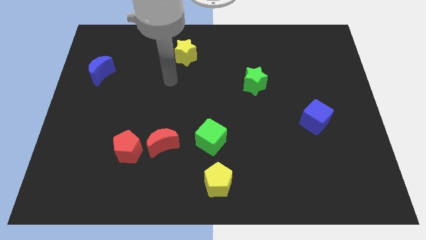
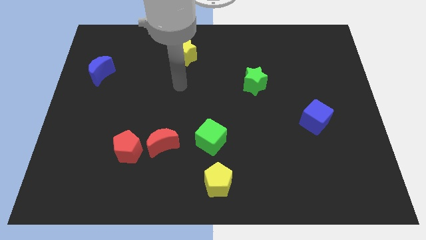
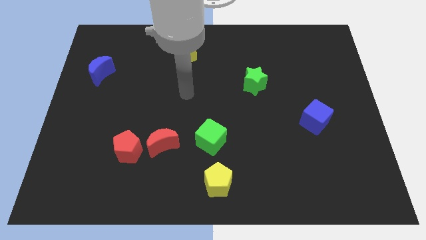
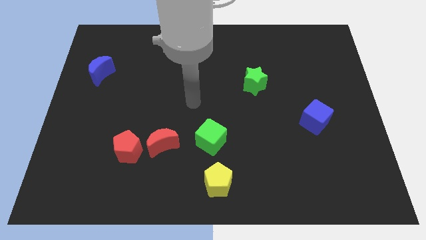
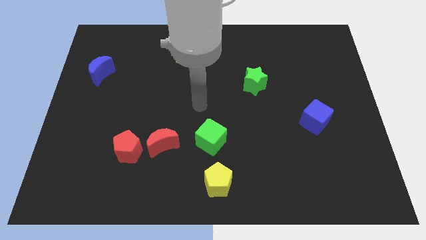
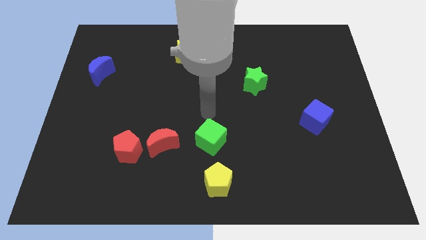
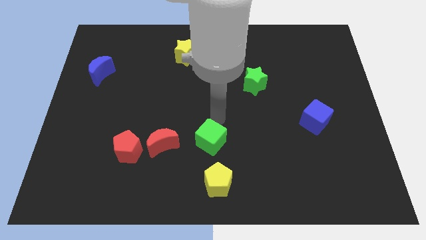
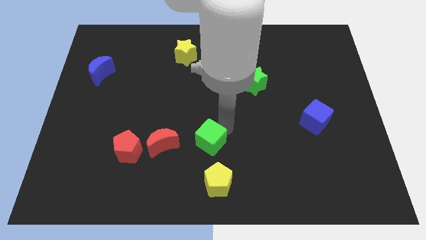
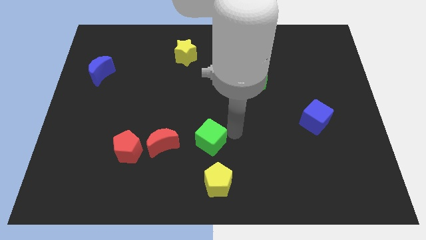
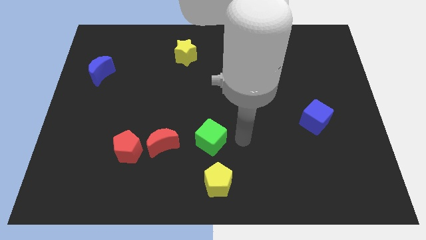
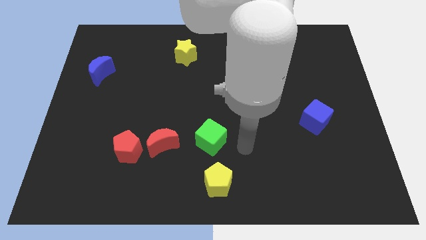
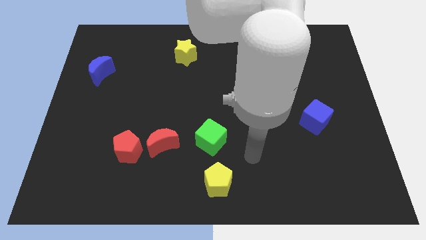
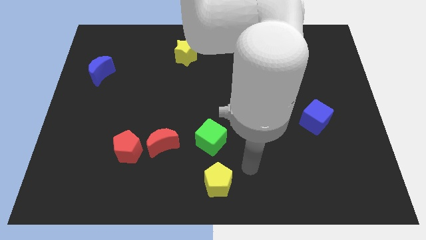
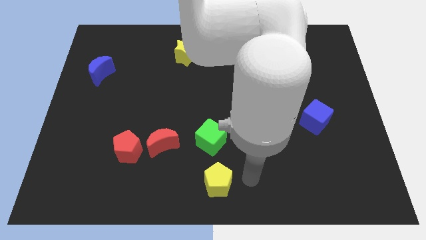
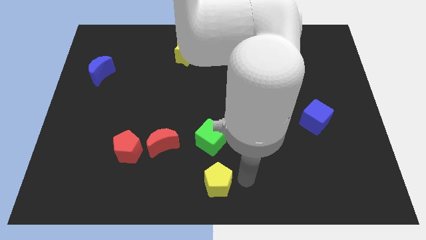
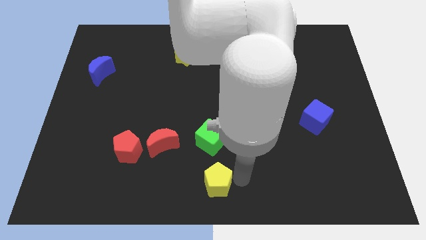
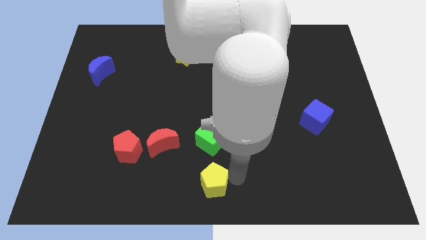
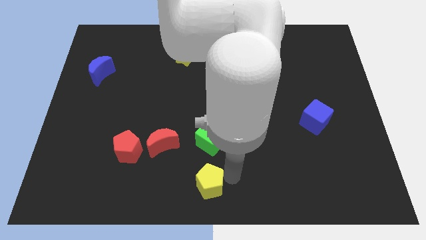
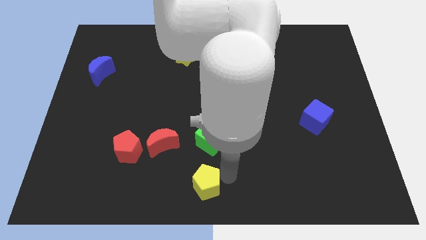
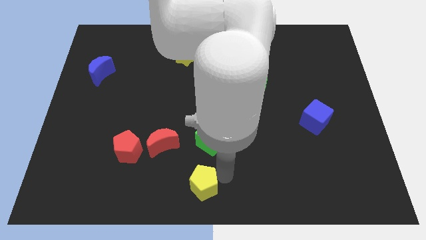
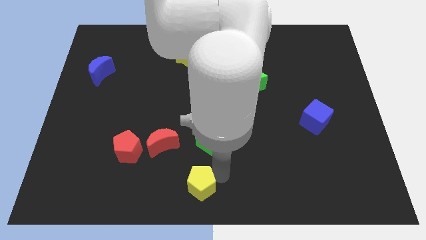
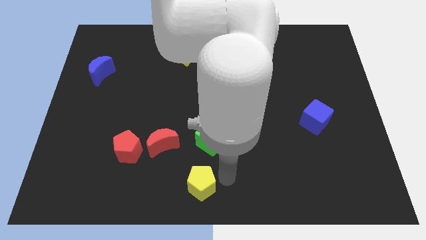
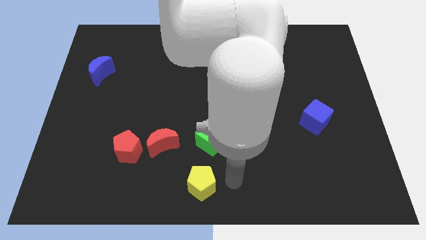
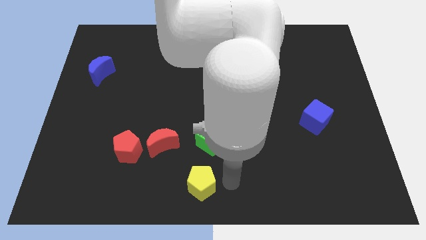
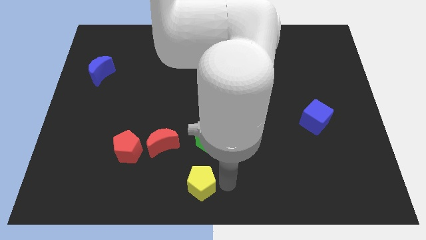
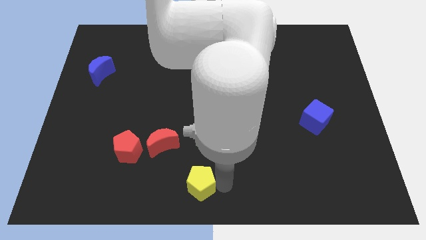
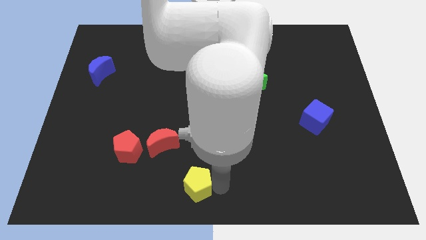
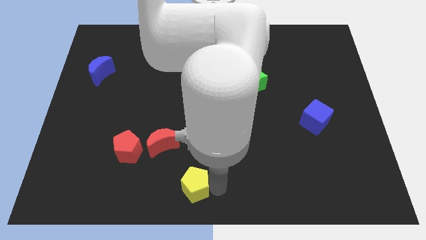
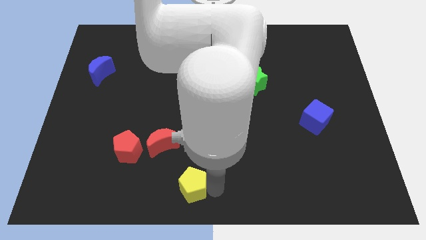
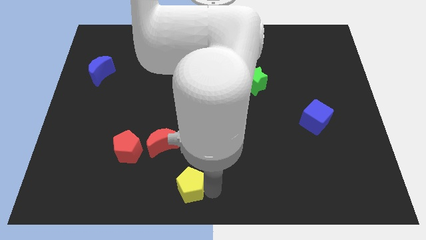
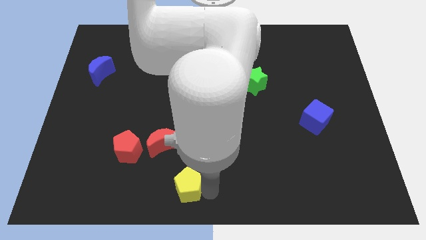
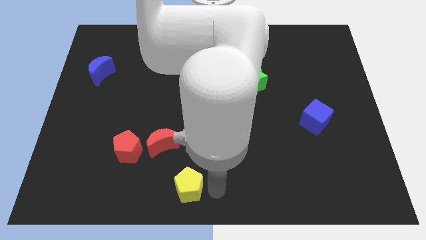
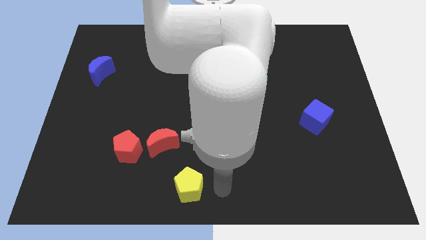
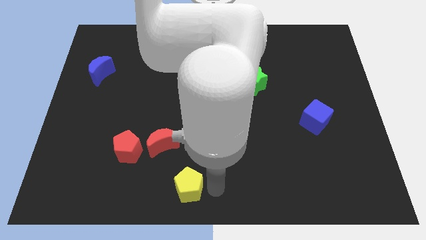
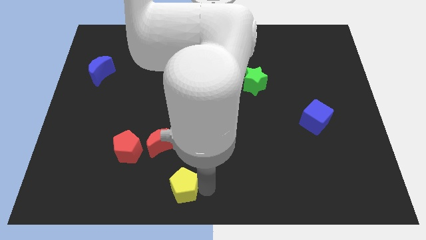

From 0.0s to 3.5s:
push the yellow pentagon a bit left

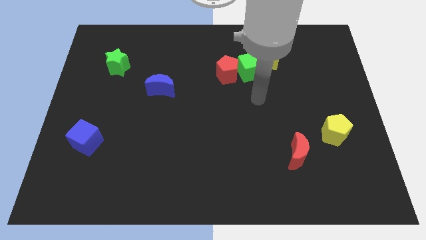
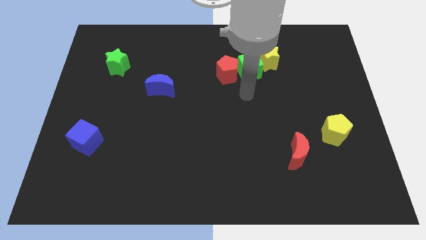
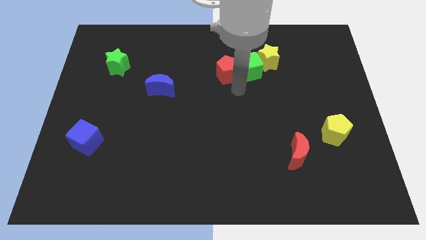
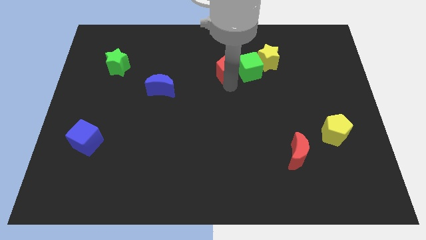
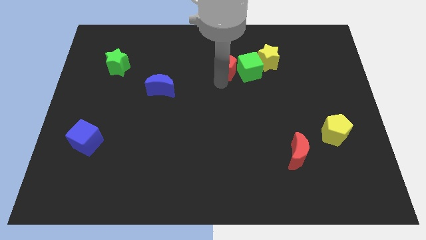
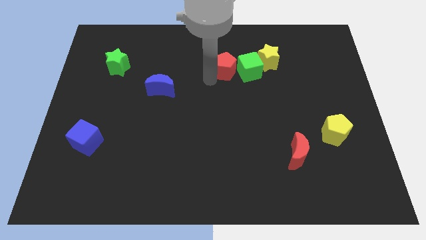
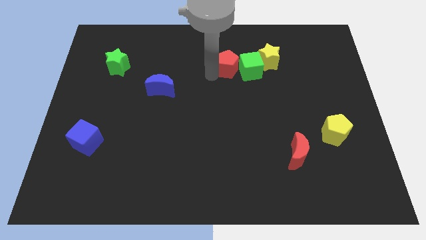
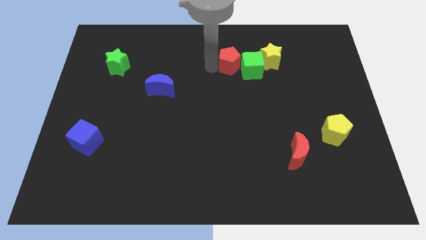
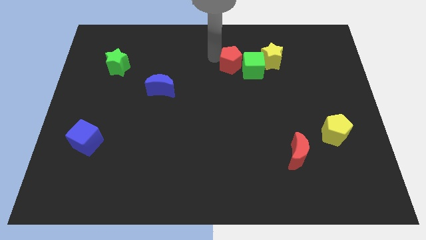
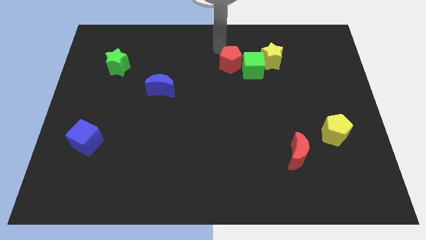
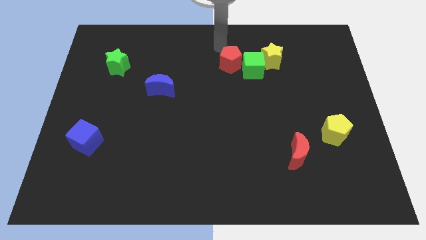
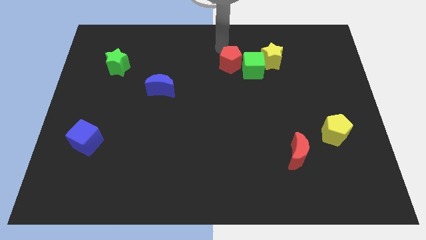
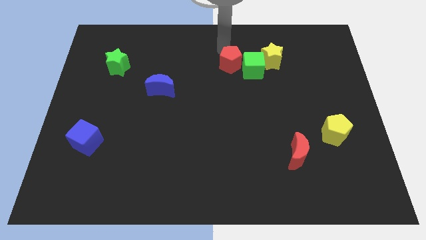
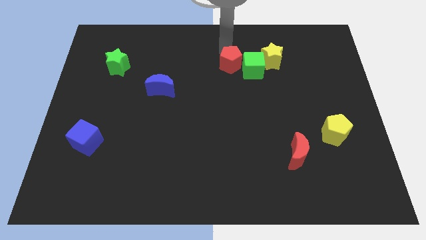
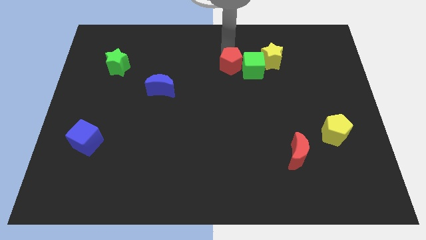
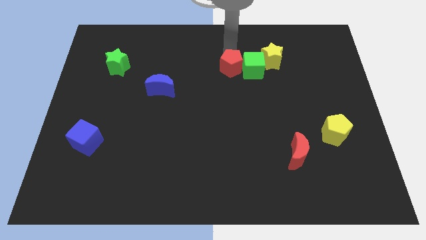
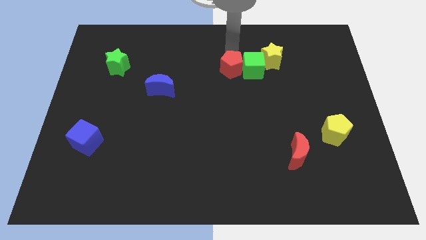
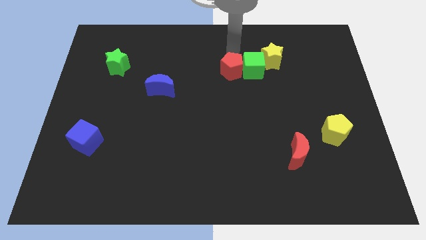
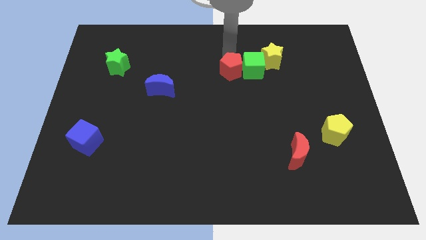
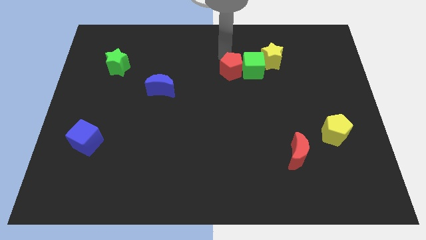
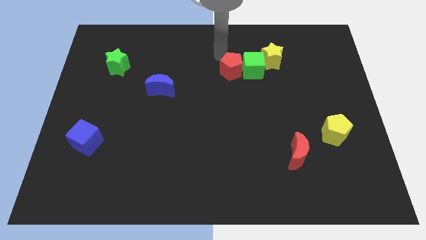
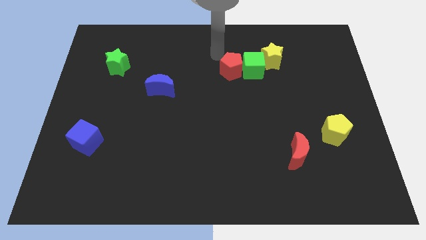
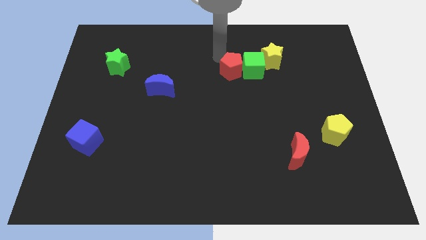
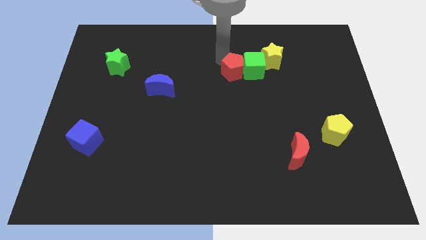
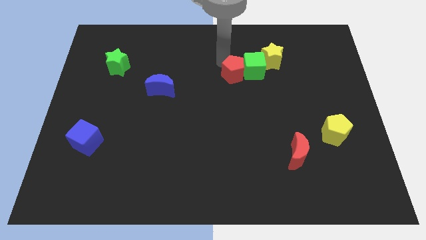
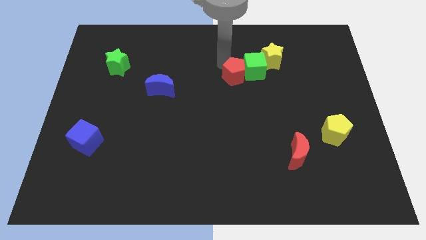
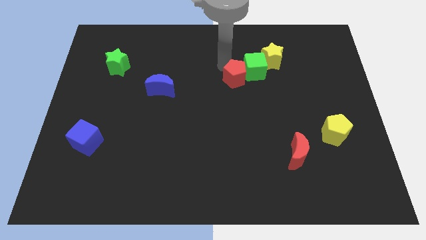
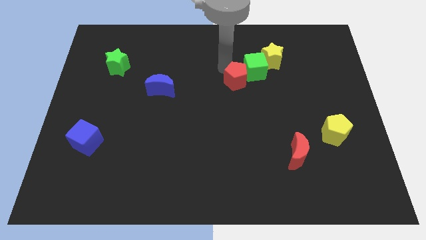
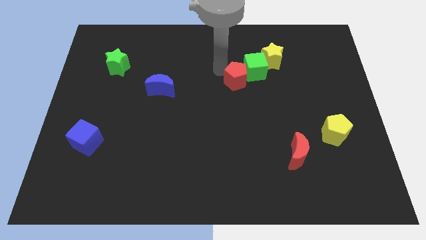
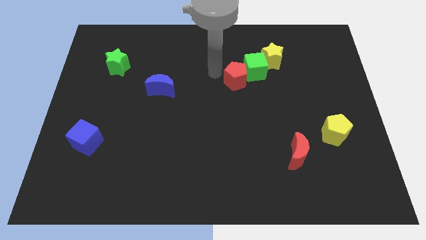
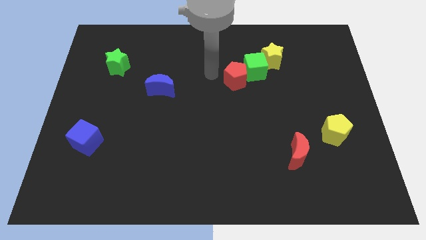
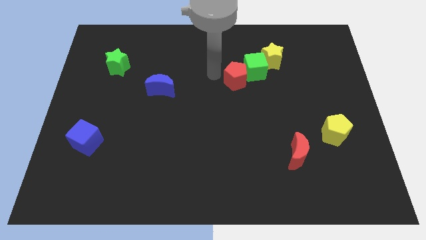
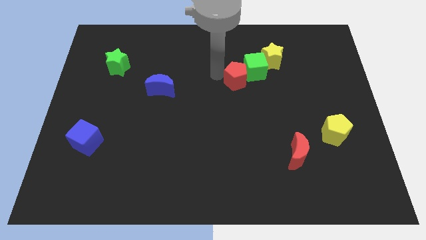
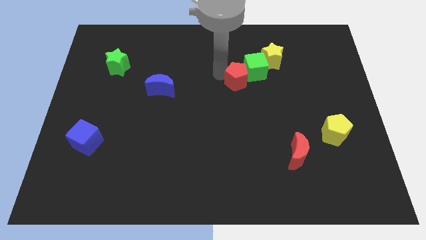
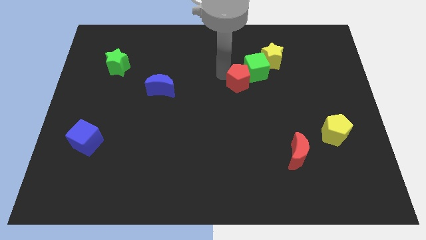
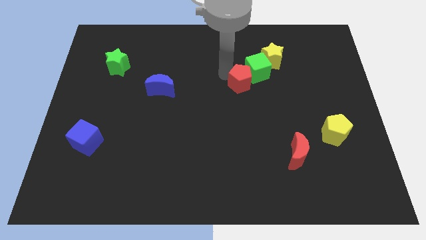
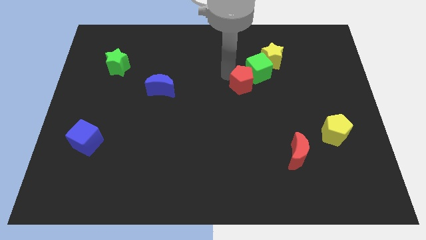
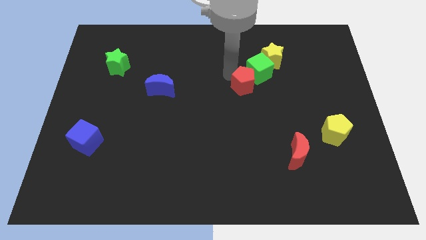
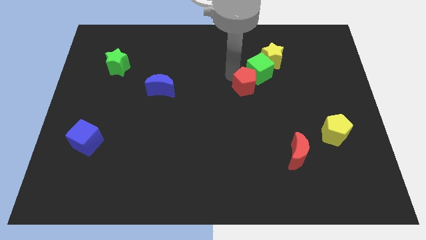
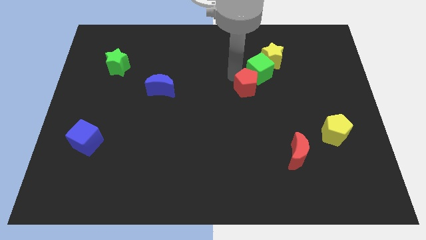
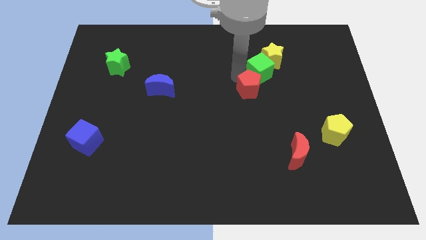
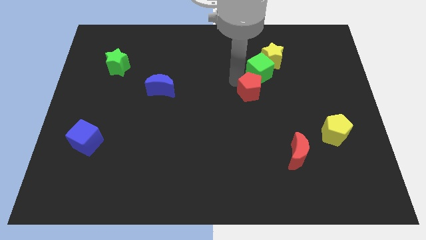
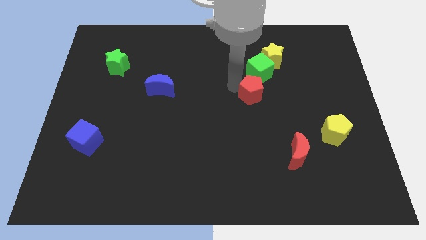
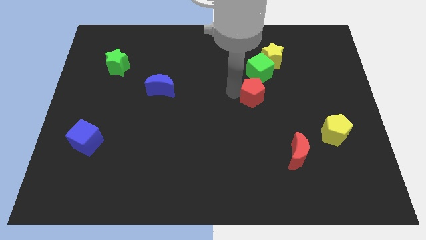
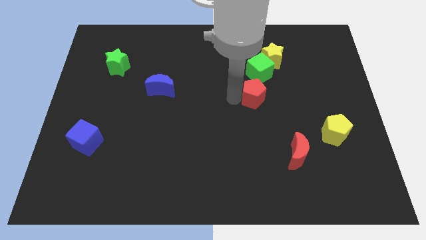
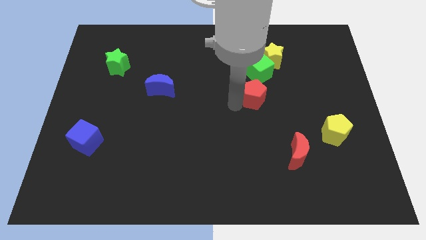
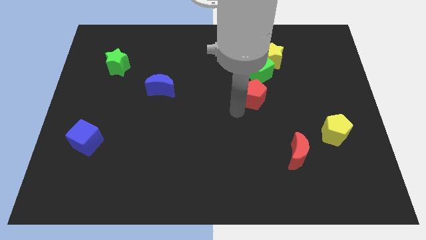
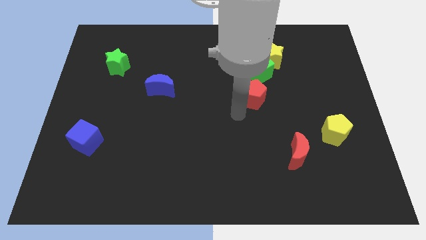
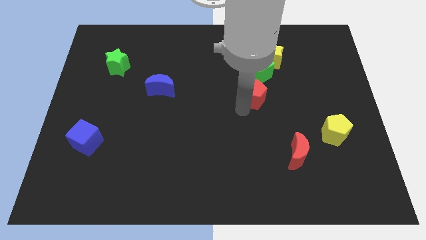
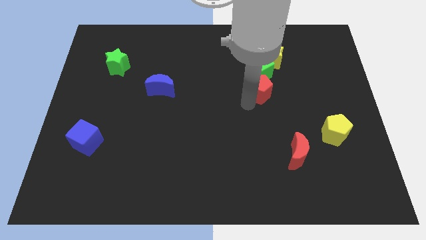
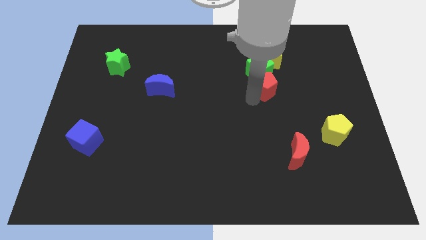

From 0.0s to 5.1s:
slightly move the red pentagon right
